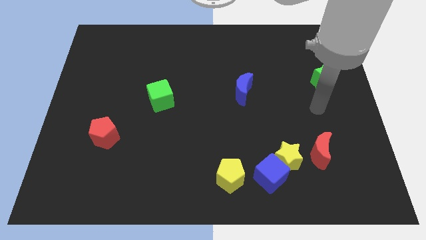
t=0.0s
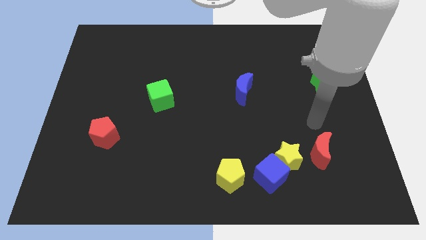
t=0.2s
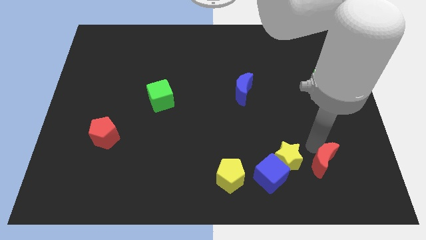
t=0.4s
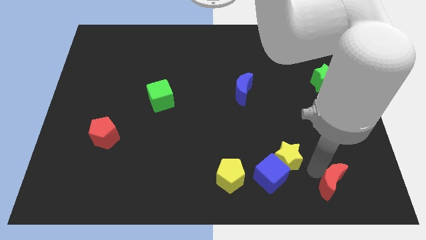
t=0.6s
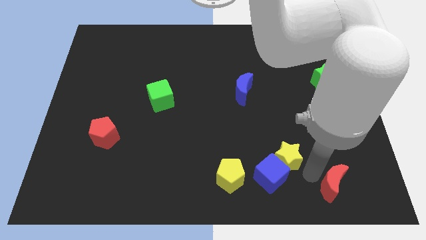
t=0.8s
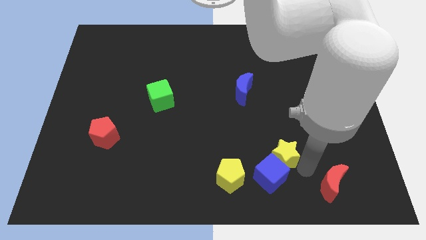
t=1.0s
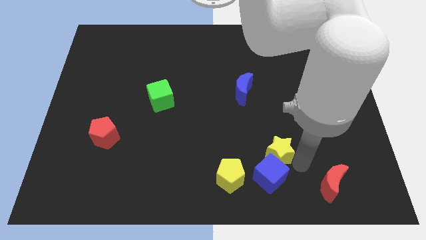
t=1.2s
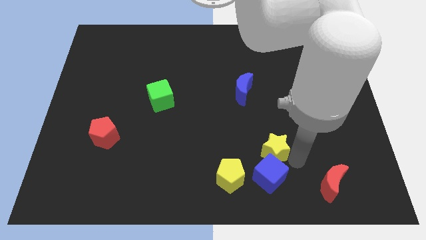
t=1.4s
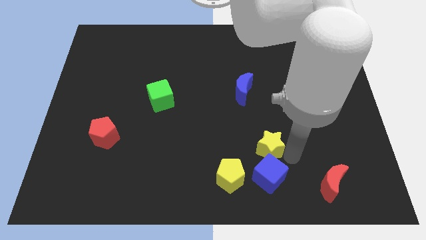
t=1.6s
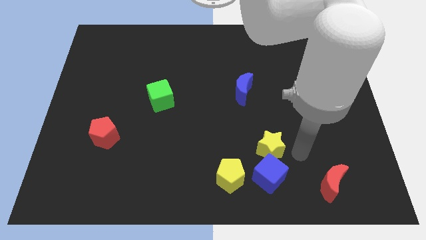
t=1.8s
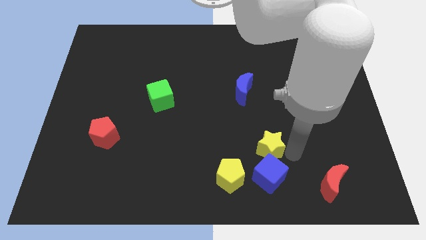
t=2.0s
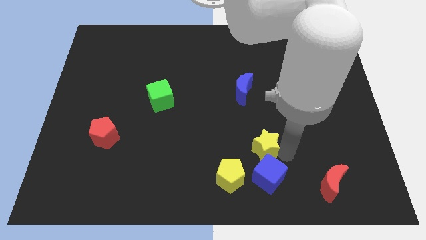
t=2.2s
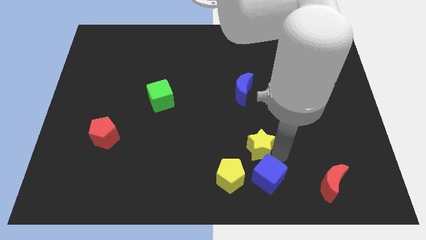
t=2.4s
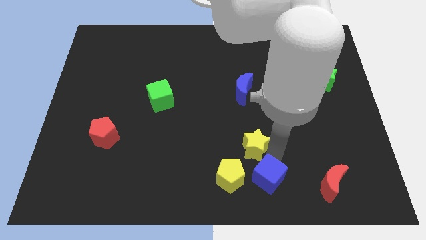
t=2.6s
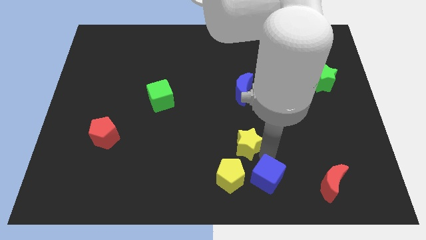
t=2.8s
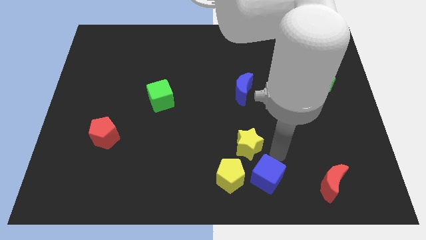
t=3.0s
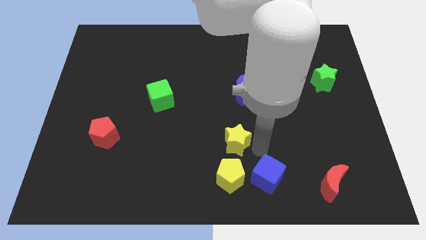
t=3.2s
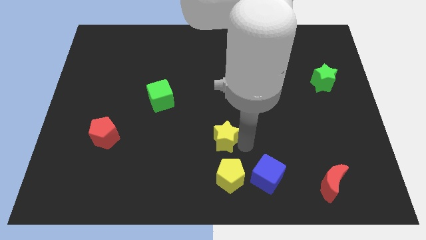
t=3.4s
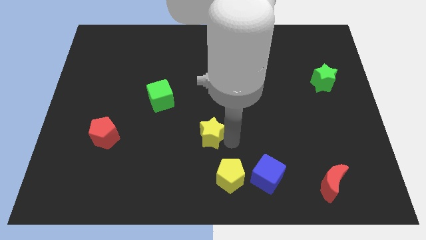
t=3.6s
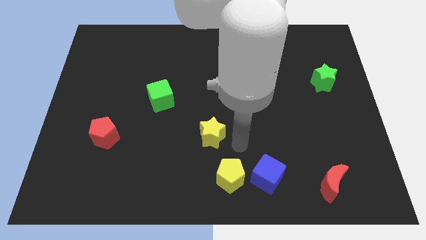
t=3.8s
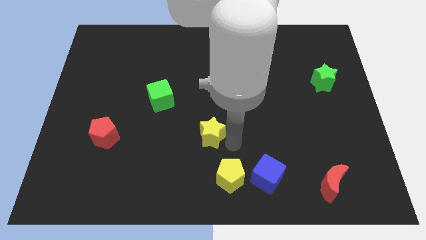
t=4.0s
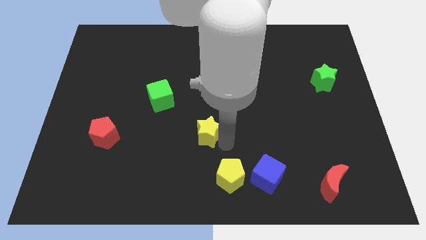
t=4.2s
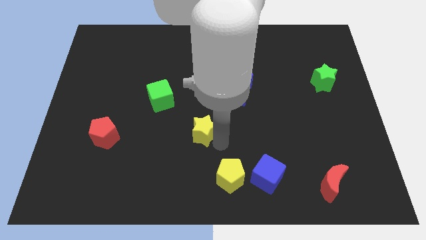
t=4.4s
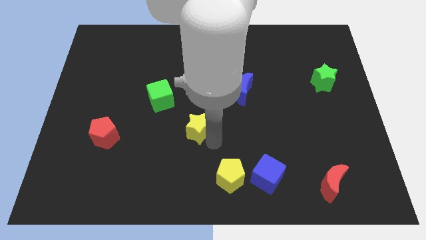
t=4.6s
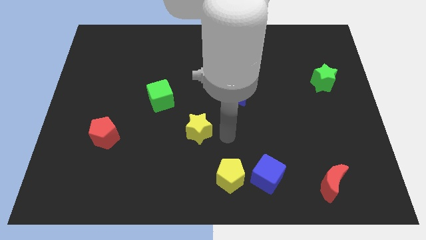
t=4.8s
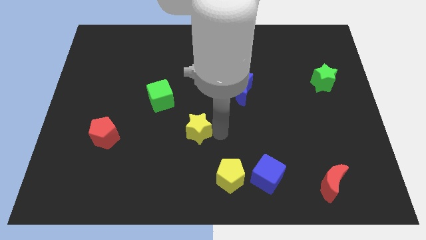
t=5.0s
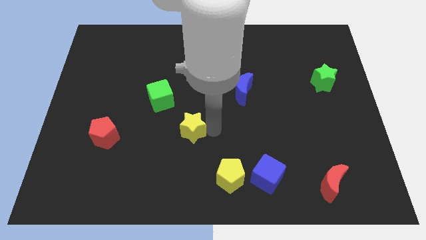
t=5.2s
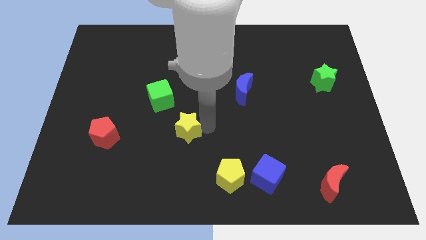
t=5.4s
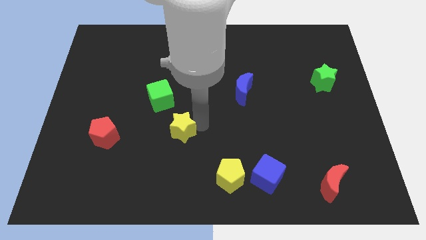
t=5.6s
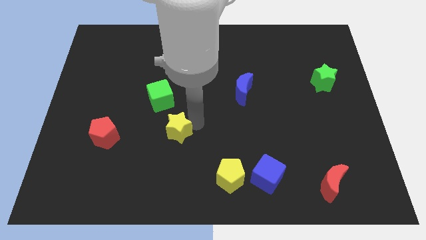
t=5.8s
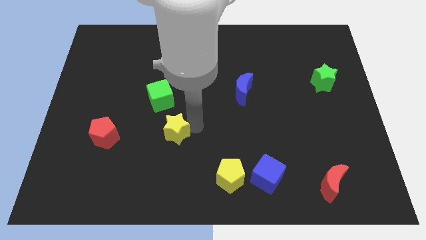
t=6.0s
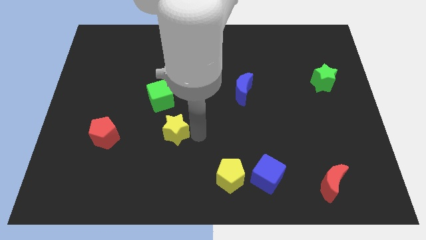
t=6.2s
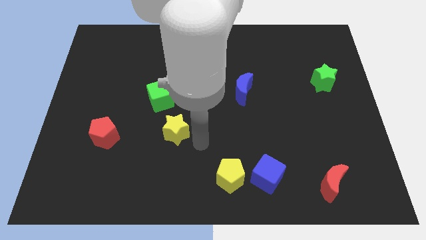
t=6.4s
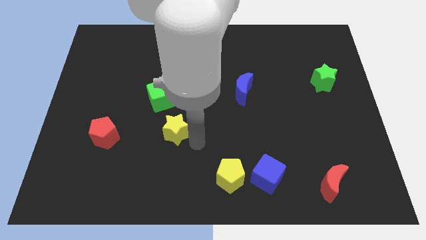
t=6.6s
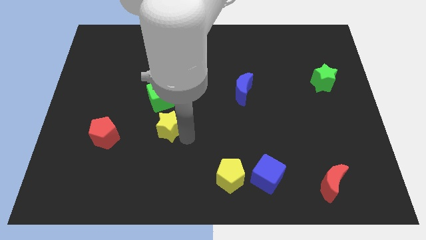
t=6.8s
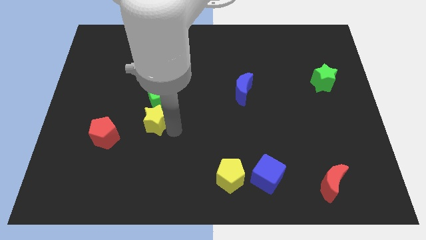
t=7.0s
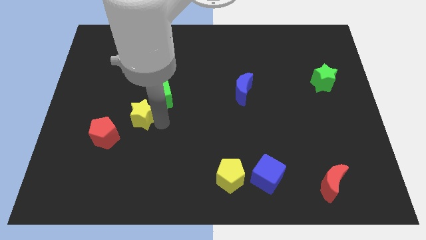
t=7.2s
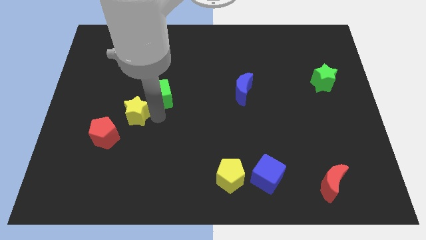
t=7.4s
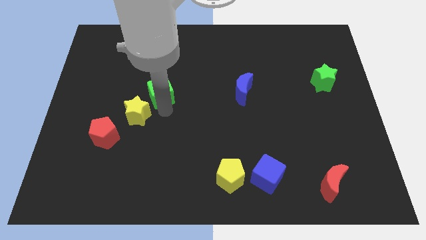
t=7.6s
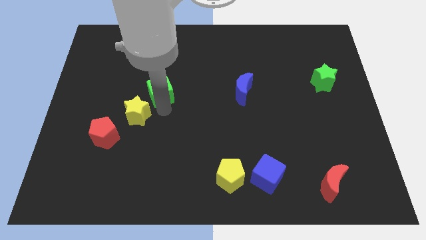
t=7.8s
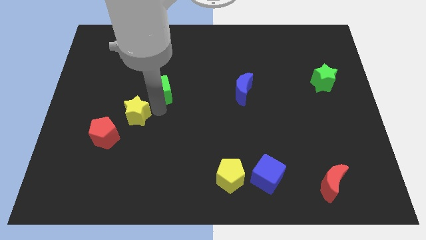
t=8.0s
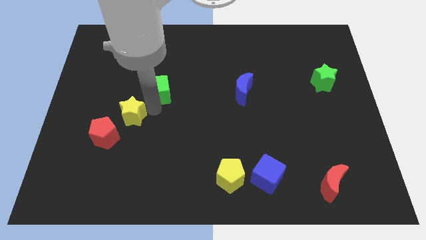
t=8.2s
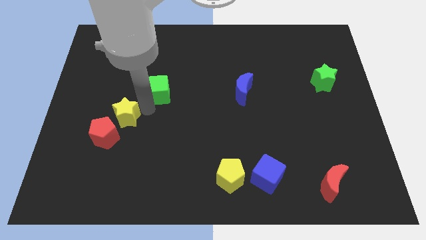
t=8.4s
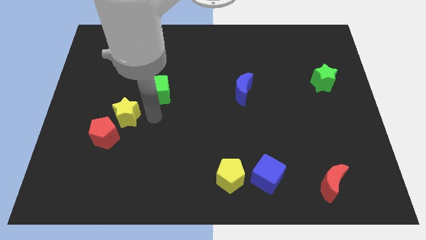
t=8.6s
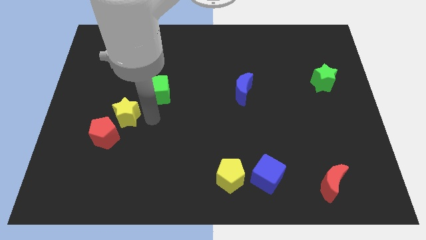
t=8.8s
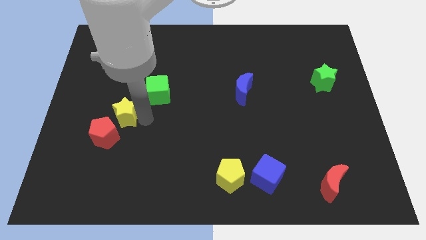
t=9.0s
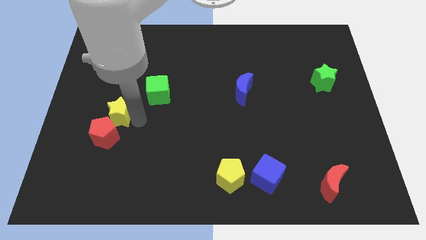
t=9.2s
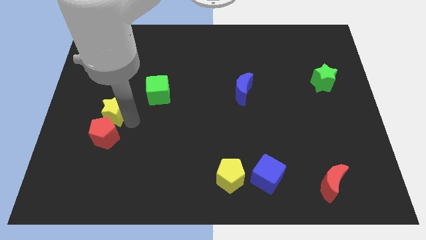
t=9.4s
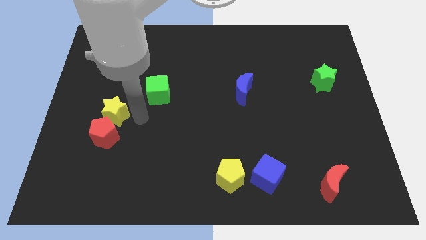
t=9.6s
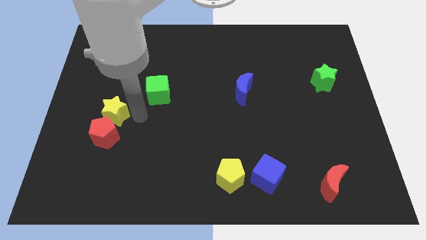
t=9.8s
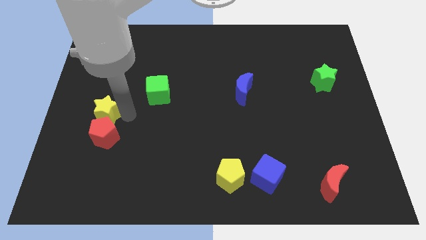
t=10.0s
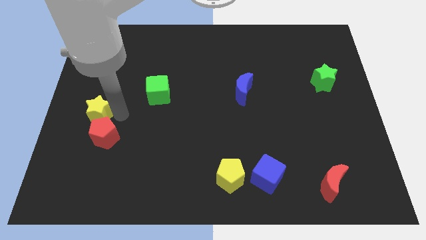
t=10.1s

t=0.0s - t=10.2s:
slide the yellow star to the center left

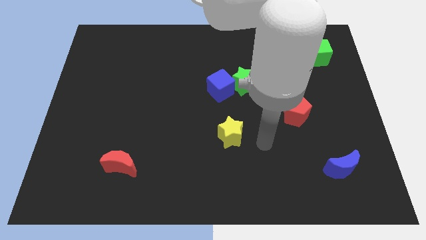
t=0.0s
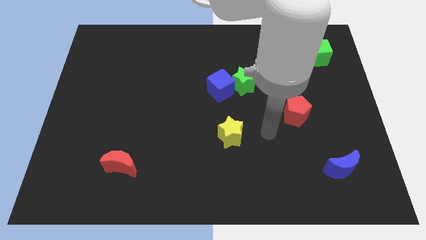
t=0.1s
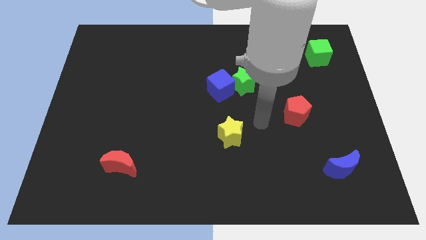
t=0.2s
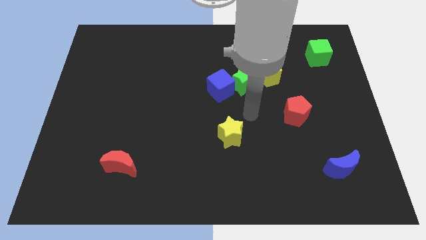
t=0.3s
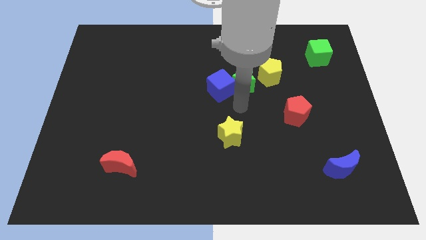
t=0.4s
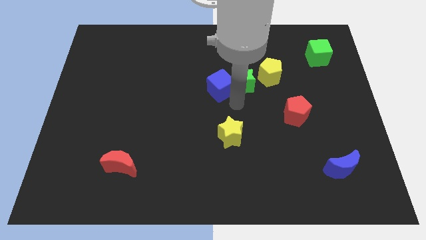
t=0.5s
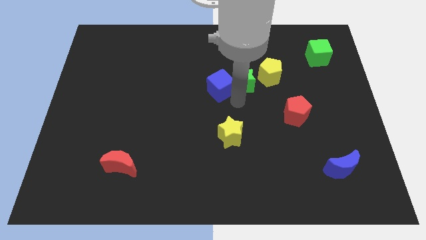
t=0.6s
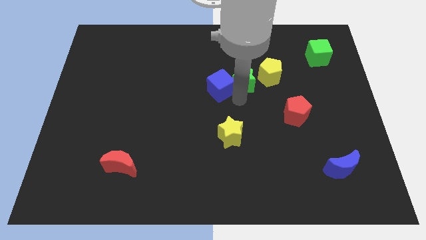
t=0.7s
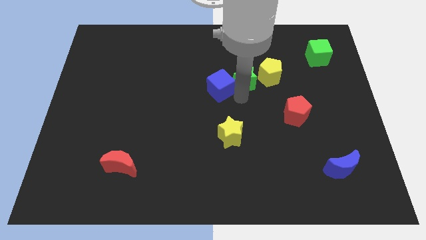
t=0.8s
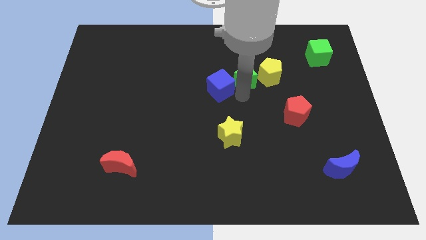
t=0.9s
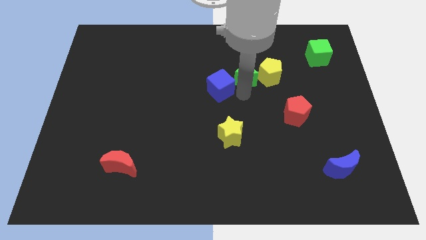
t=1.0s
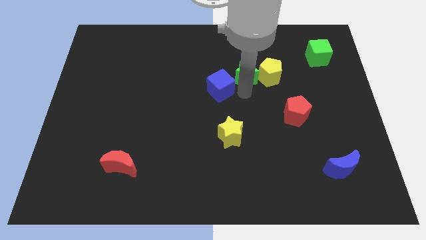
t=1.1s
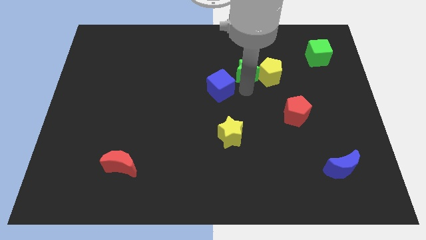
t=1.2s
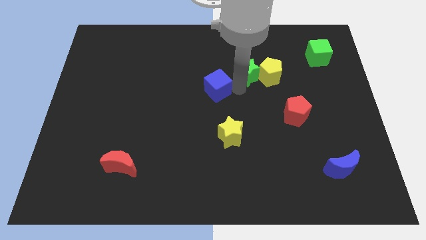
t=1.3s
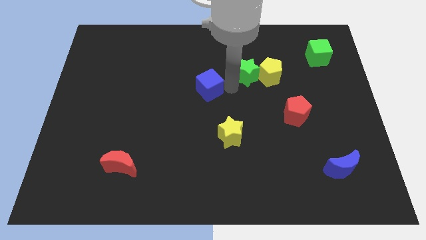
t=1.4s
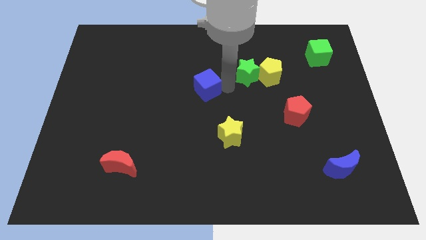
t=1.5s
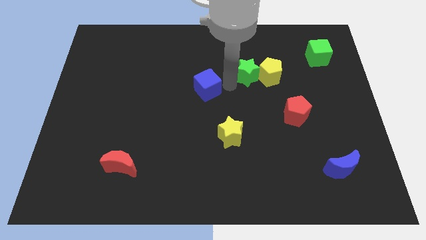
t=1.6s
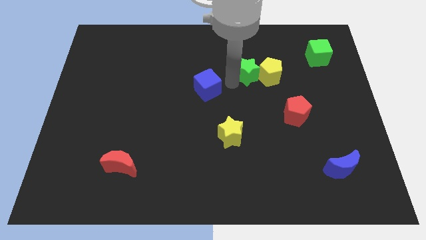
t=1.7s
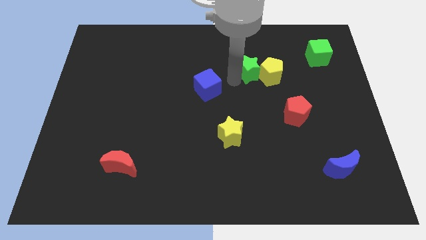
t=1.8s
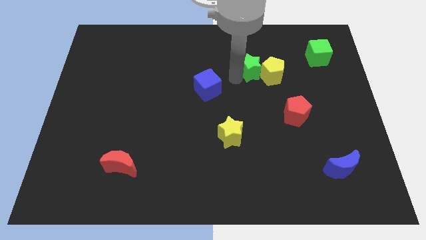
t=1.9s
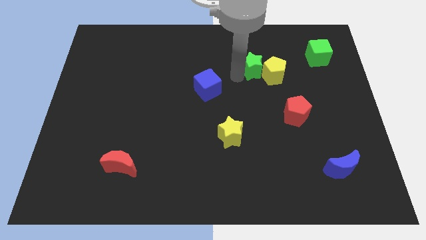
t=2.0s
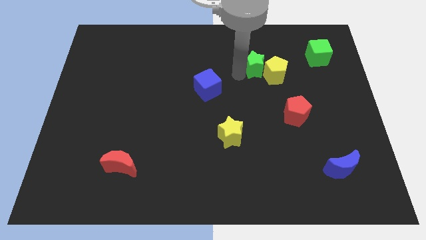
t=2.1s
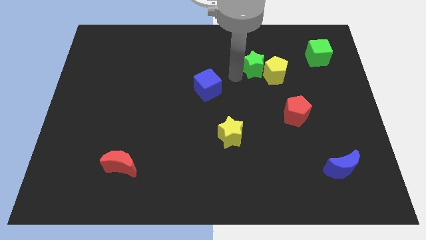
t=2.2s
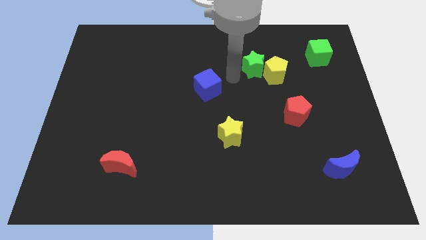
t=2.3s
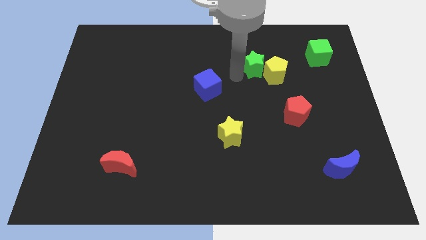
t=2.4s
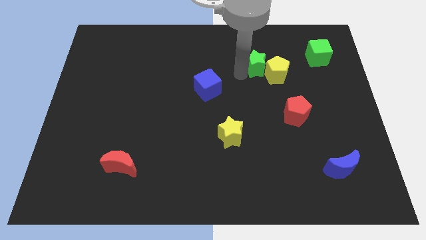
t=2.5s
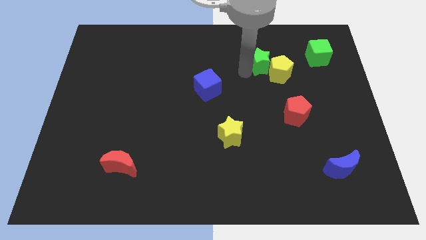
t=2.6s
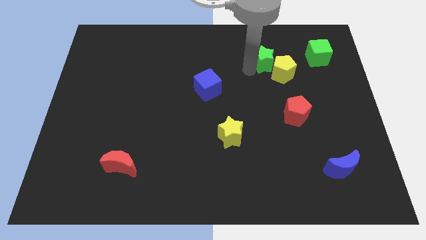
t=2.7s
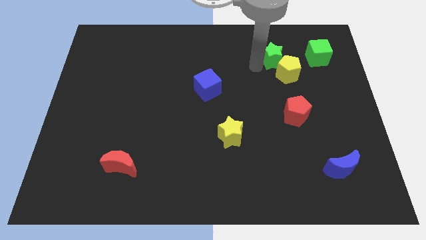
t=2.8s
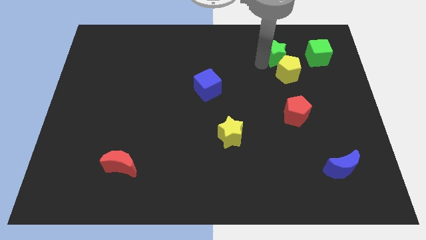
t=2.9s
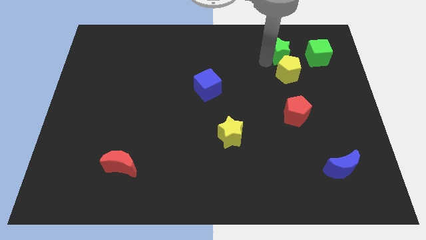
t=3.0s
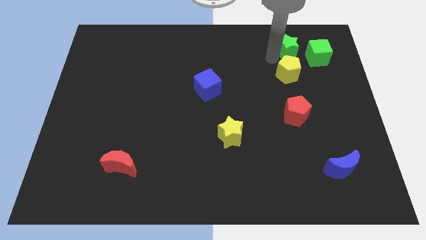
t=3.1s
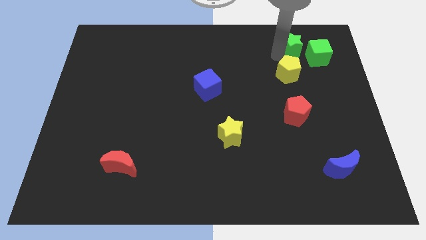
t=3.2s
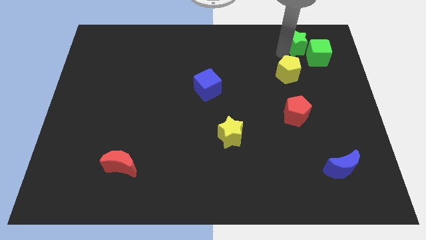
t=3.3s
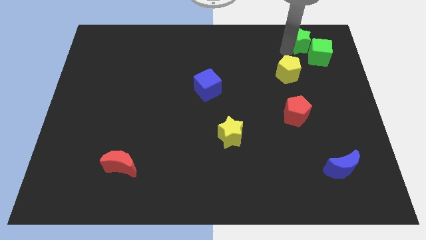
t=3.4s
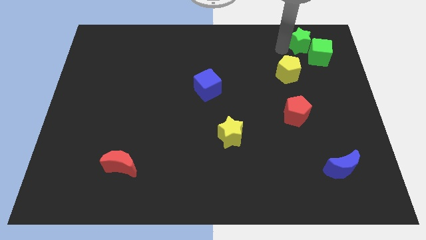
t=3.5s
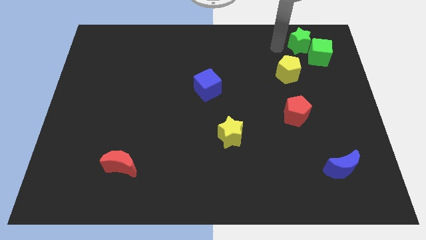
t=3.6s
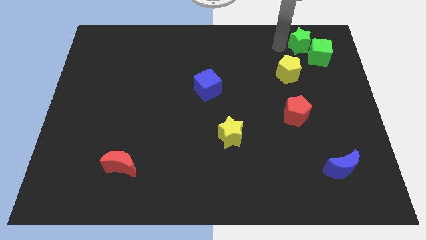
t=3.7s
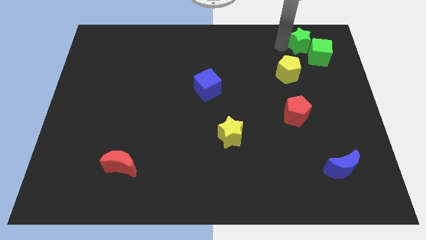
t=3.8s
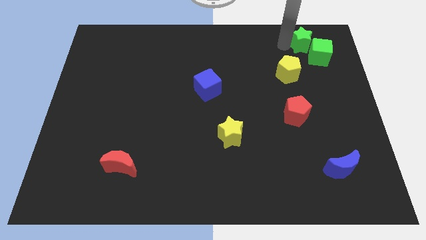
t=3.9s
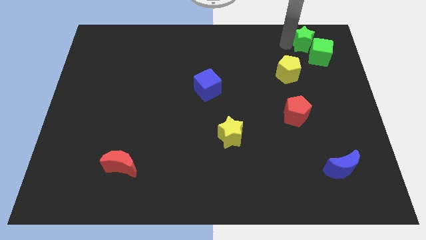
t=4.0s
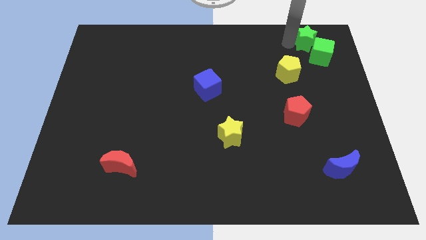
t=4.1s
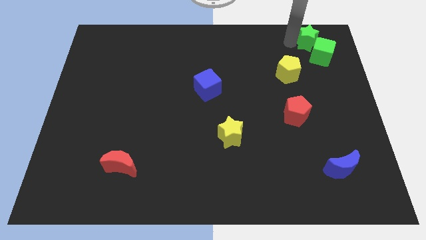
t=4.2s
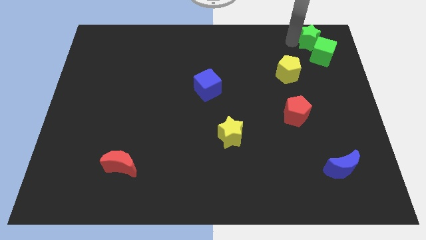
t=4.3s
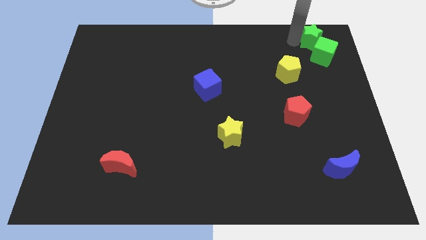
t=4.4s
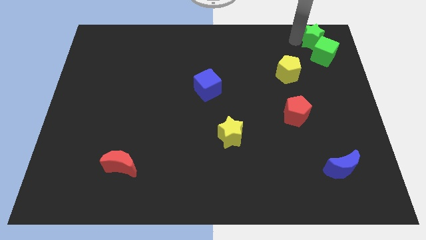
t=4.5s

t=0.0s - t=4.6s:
push the green star to the top right
